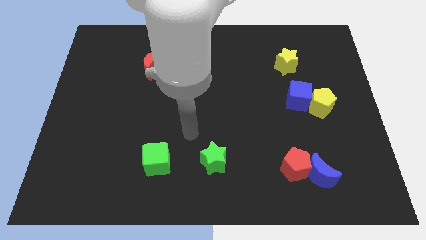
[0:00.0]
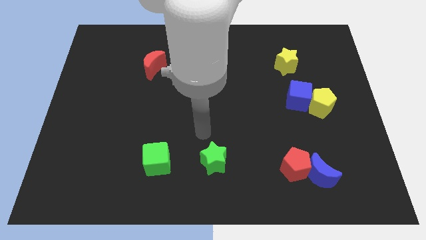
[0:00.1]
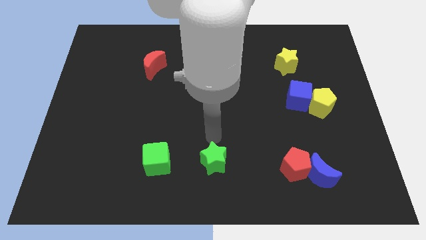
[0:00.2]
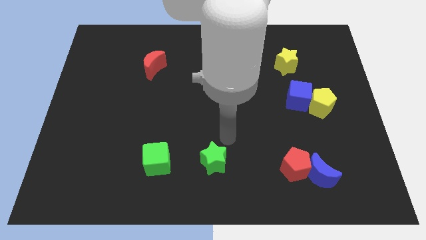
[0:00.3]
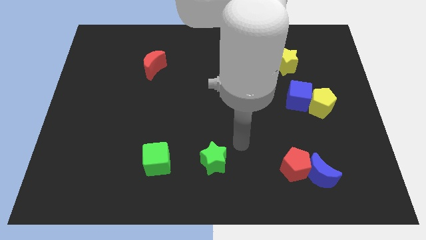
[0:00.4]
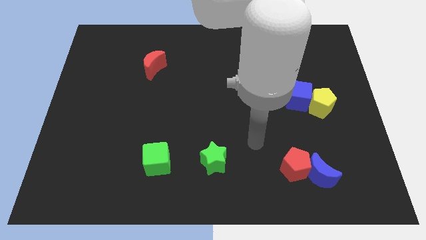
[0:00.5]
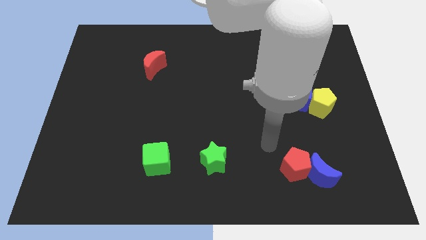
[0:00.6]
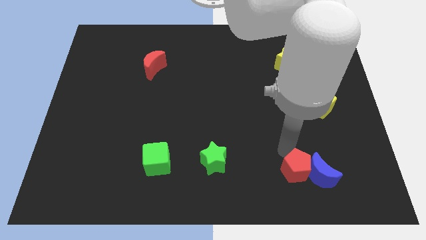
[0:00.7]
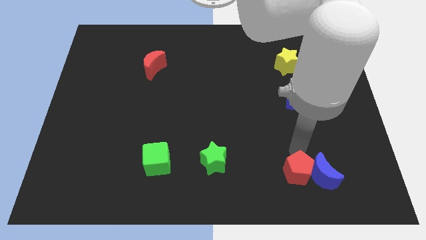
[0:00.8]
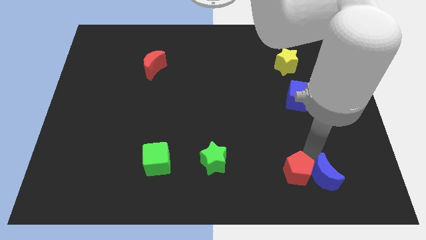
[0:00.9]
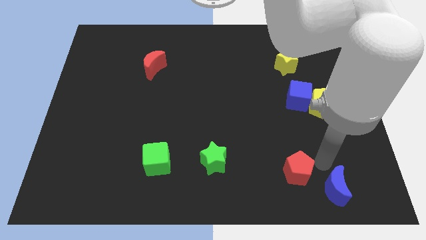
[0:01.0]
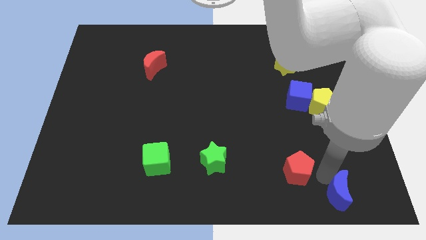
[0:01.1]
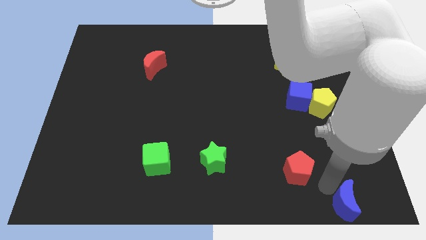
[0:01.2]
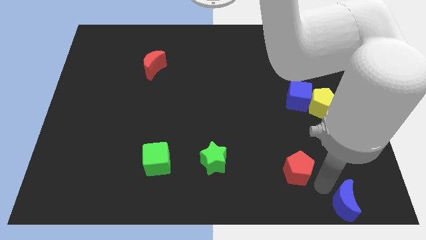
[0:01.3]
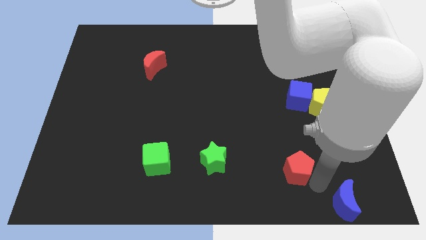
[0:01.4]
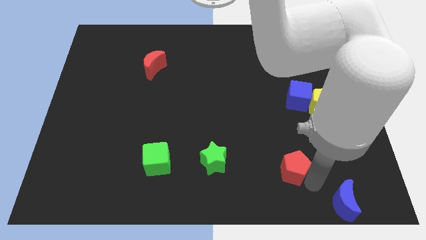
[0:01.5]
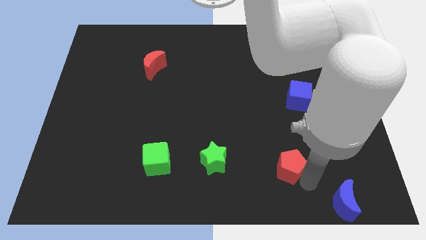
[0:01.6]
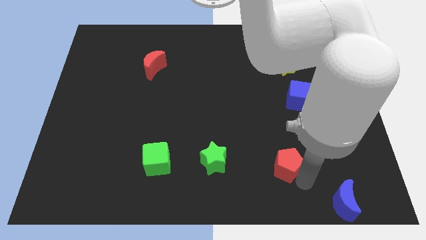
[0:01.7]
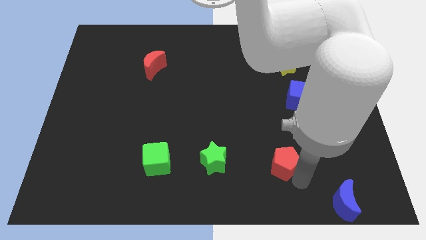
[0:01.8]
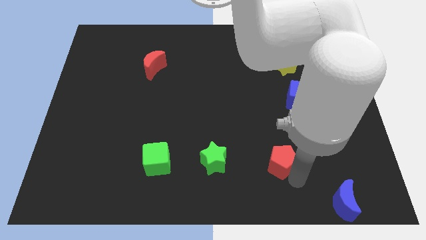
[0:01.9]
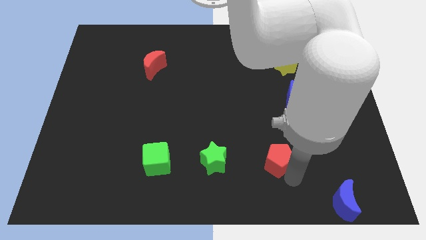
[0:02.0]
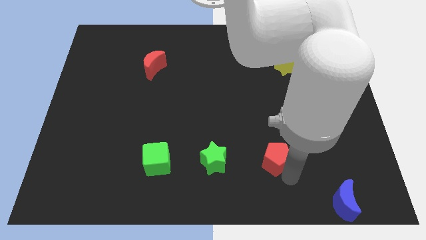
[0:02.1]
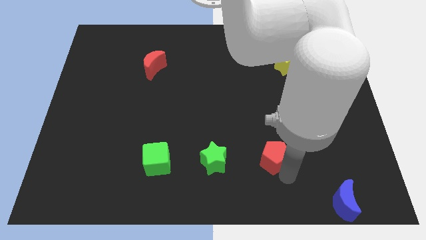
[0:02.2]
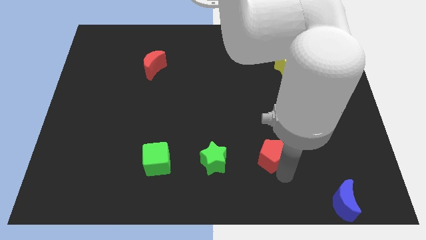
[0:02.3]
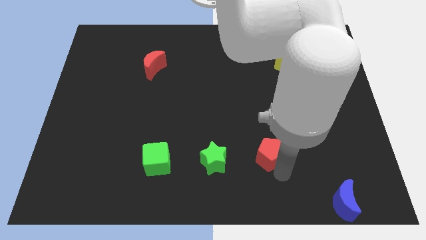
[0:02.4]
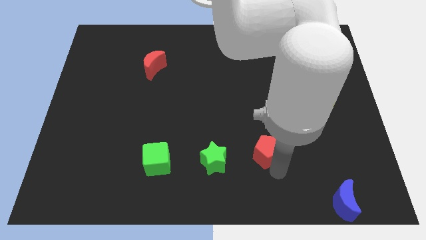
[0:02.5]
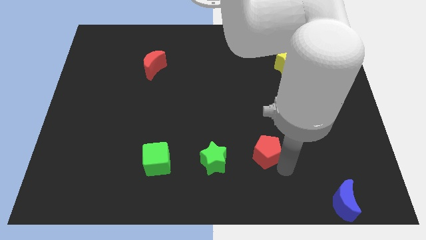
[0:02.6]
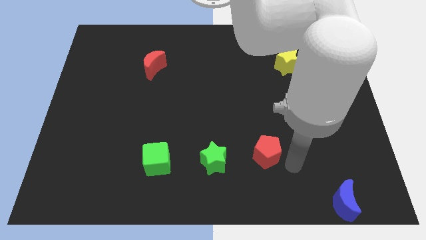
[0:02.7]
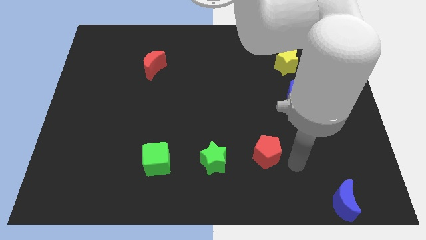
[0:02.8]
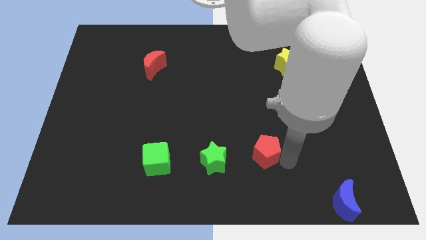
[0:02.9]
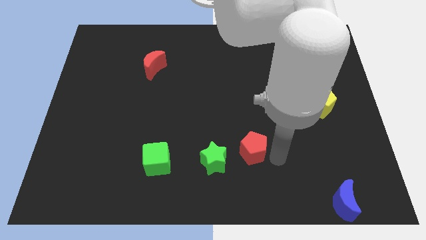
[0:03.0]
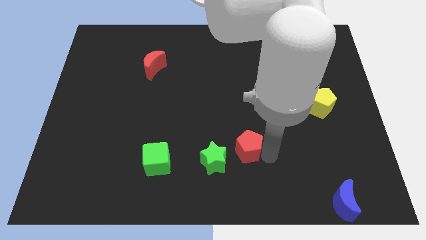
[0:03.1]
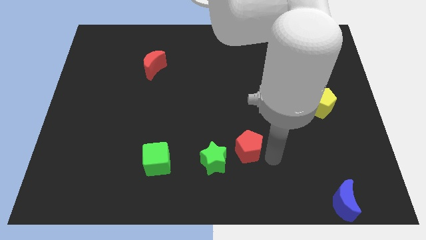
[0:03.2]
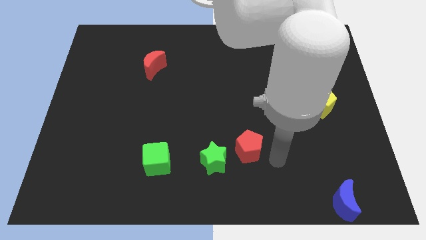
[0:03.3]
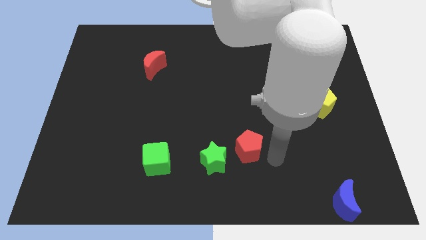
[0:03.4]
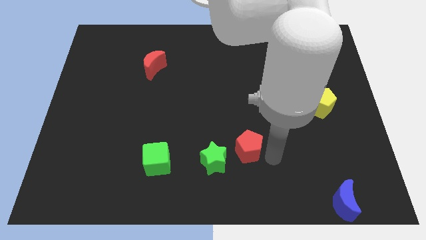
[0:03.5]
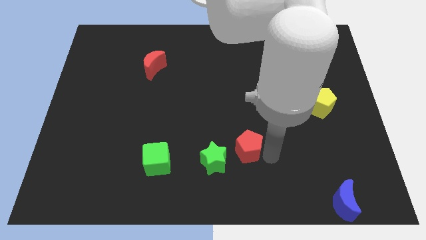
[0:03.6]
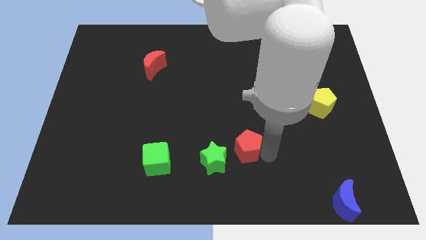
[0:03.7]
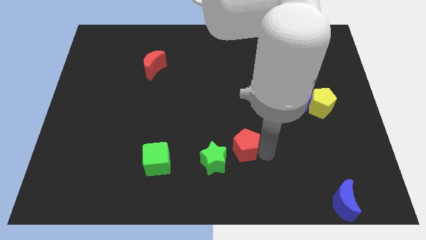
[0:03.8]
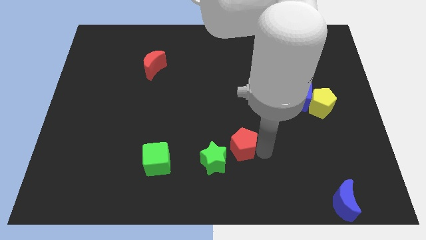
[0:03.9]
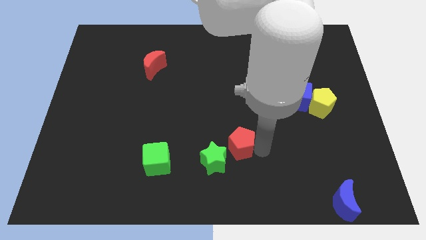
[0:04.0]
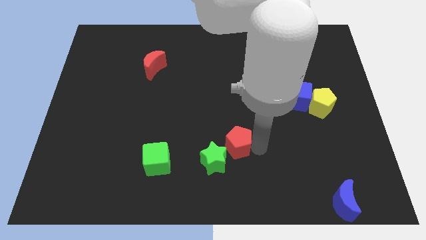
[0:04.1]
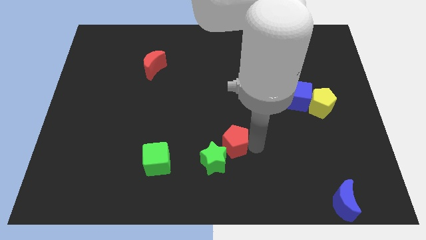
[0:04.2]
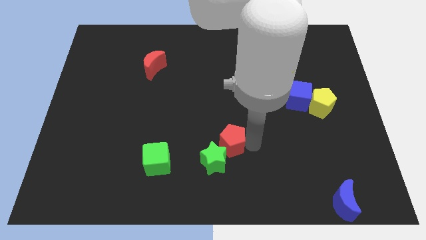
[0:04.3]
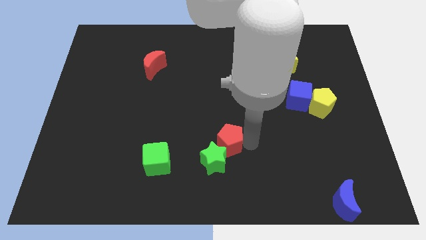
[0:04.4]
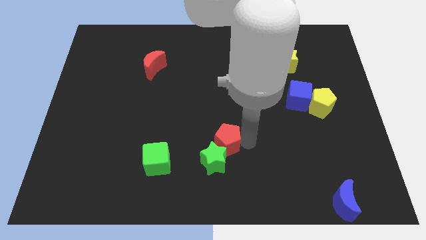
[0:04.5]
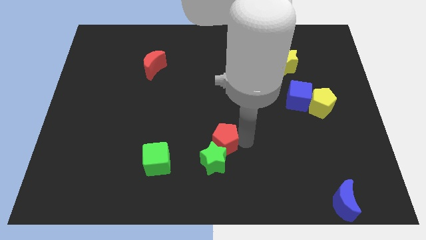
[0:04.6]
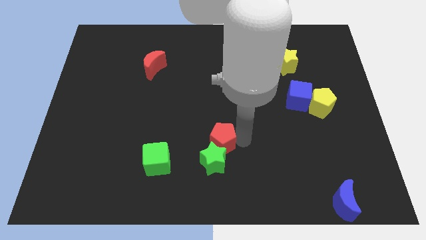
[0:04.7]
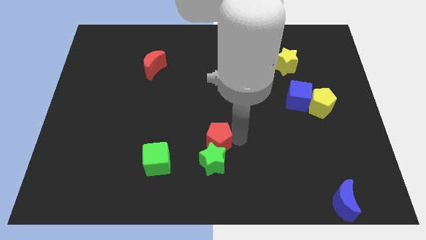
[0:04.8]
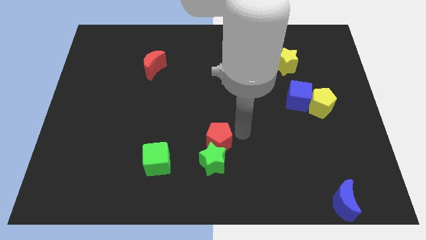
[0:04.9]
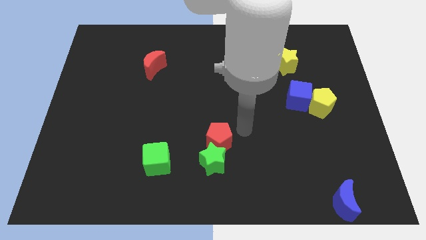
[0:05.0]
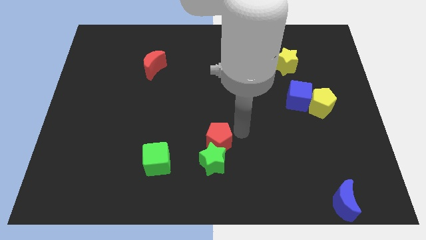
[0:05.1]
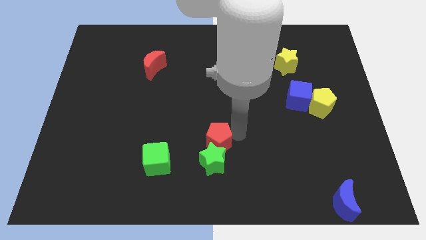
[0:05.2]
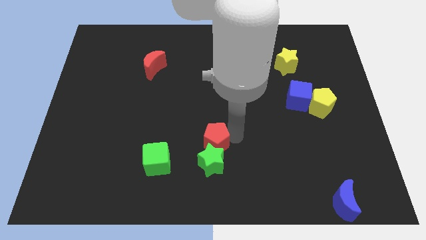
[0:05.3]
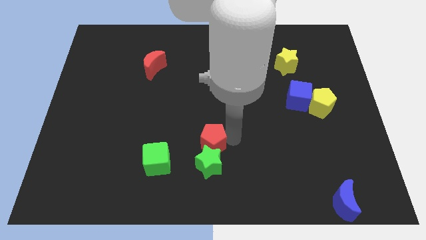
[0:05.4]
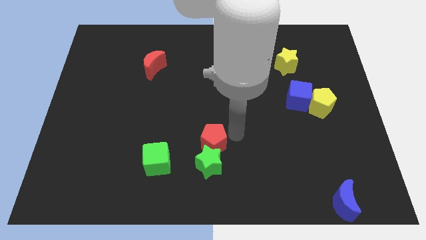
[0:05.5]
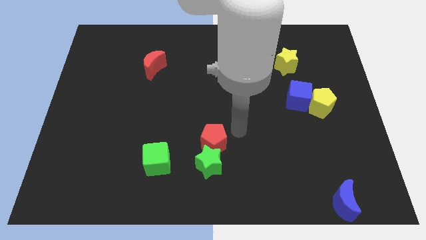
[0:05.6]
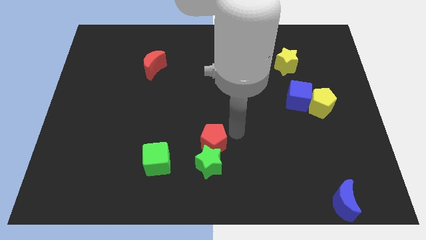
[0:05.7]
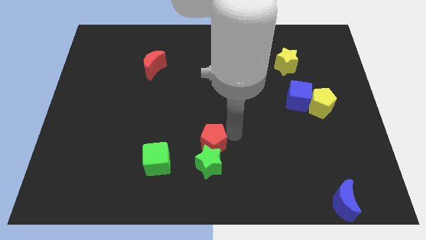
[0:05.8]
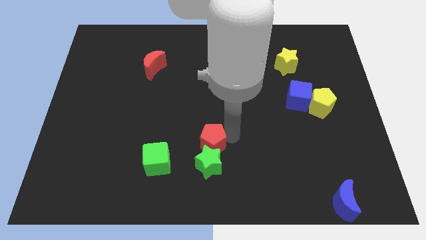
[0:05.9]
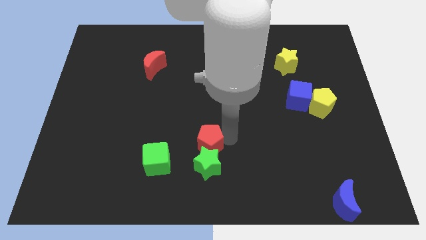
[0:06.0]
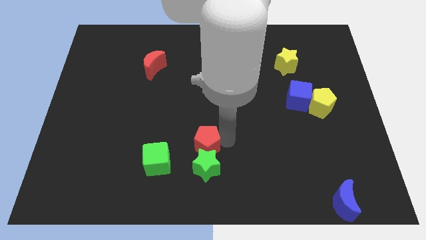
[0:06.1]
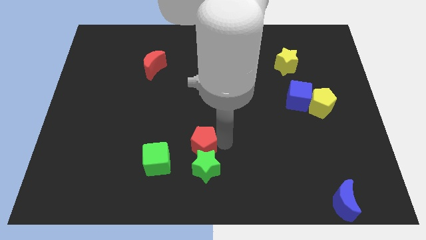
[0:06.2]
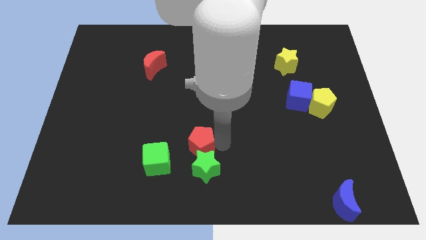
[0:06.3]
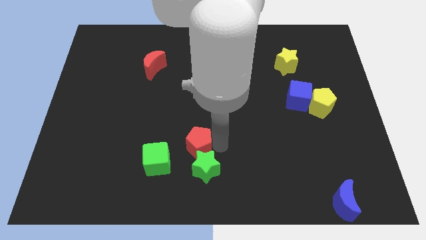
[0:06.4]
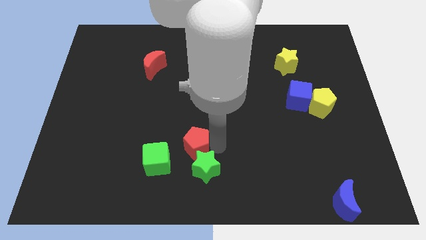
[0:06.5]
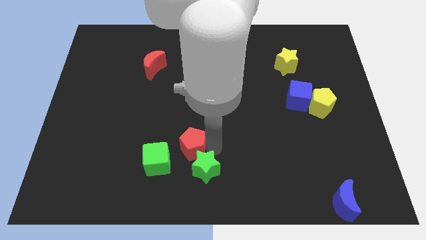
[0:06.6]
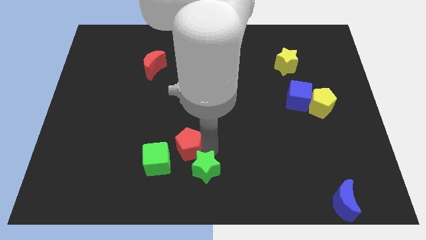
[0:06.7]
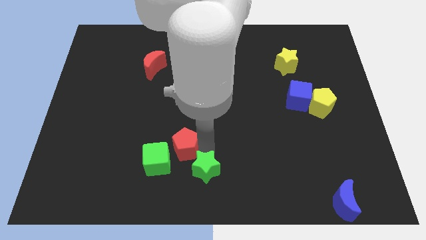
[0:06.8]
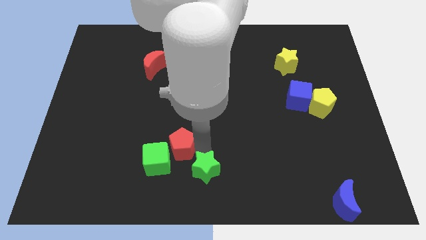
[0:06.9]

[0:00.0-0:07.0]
push the red pentagon next to the green cube
